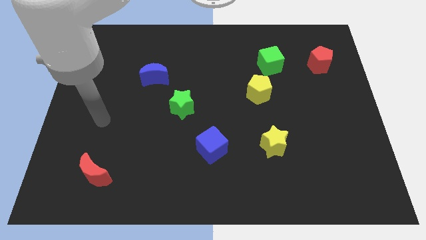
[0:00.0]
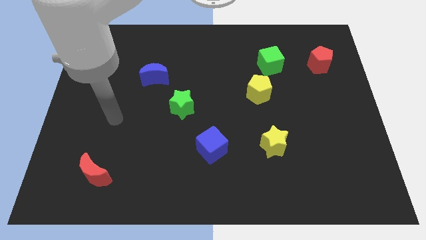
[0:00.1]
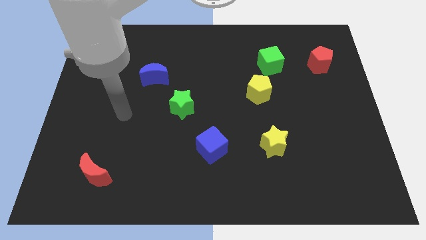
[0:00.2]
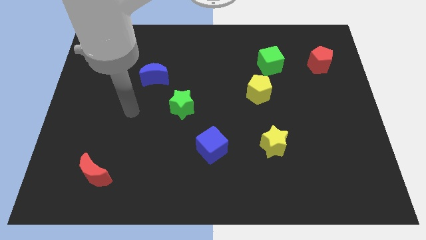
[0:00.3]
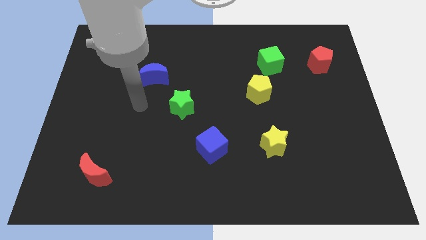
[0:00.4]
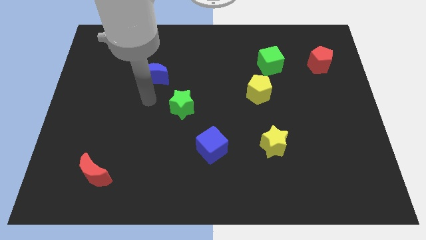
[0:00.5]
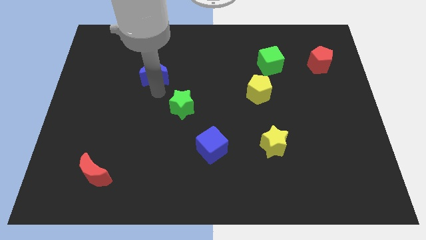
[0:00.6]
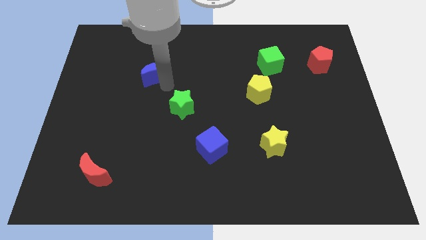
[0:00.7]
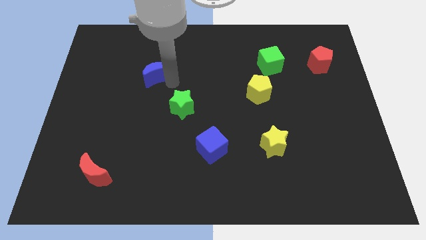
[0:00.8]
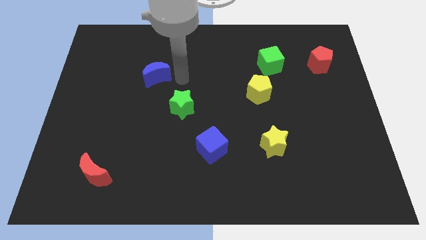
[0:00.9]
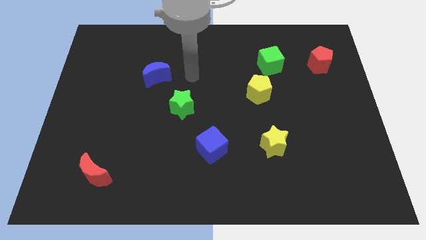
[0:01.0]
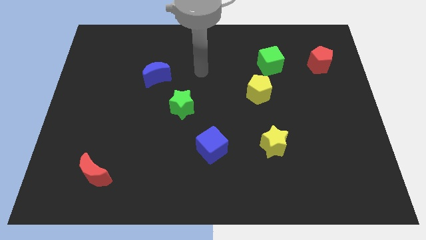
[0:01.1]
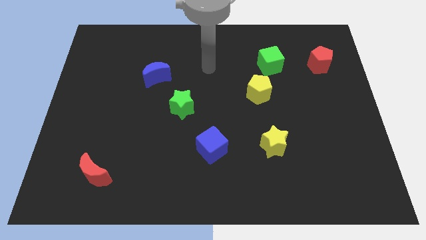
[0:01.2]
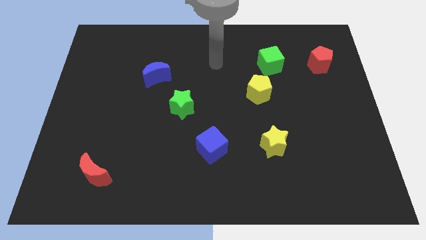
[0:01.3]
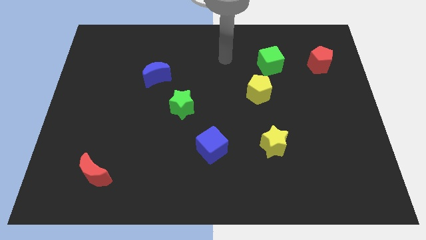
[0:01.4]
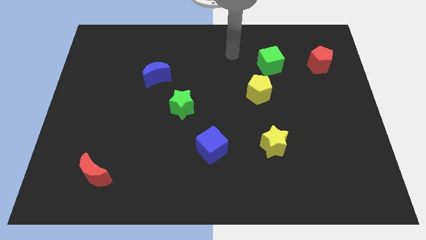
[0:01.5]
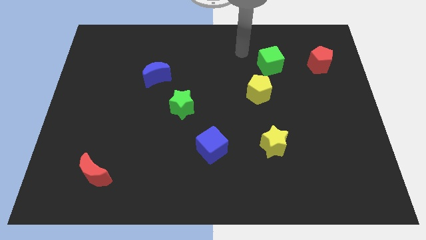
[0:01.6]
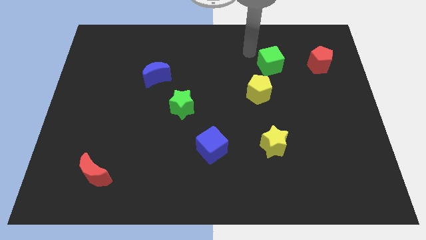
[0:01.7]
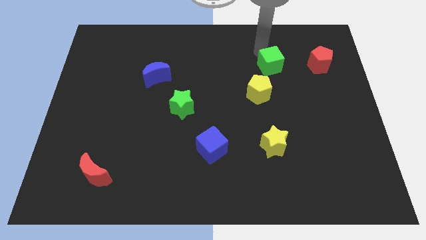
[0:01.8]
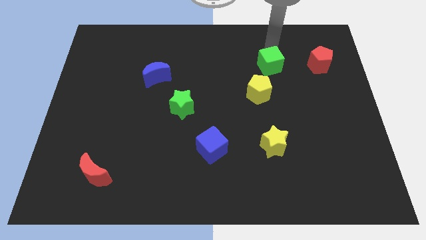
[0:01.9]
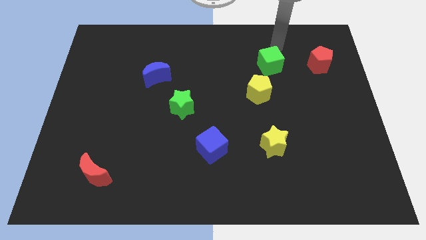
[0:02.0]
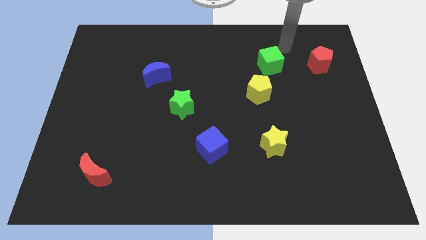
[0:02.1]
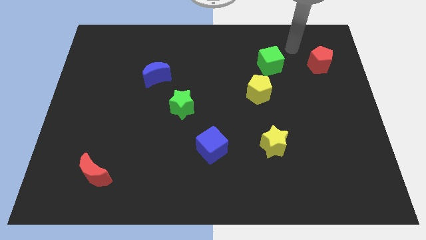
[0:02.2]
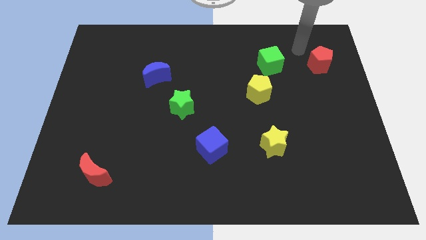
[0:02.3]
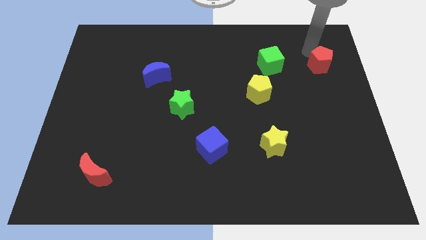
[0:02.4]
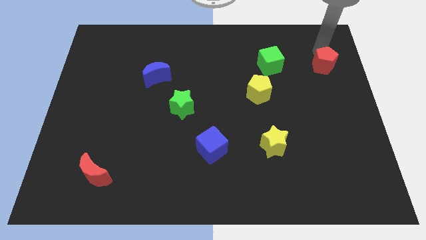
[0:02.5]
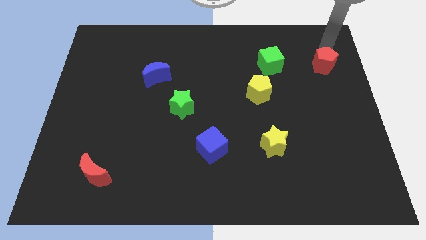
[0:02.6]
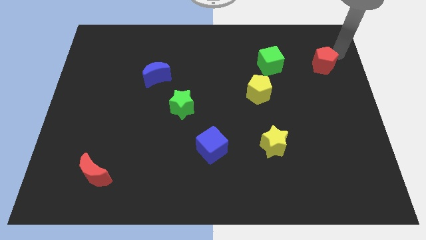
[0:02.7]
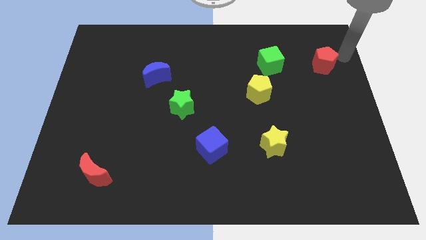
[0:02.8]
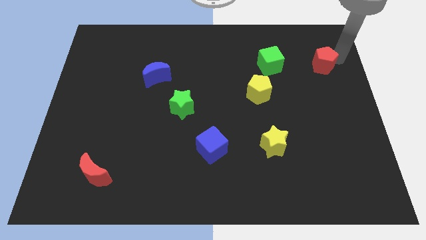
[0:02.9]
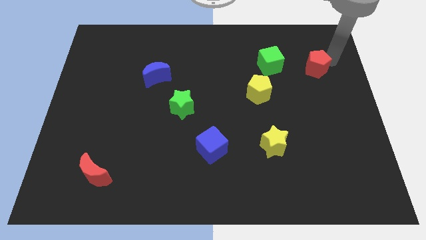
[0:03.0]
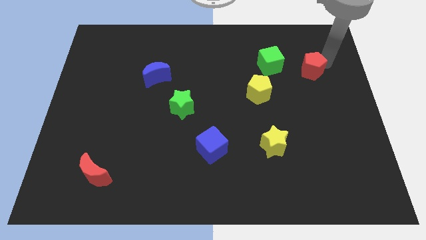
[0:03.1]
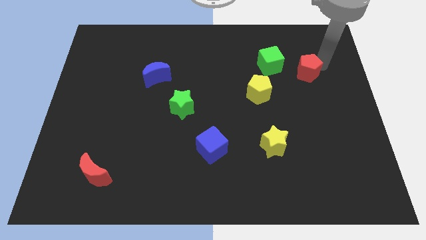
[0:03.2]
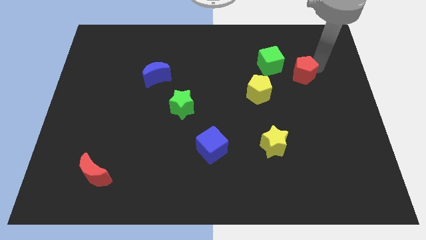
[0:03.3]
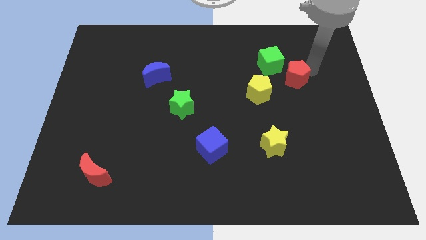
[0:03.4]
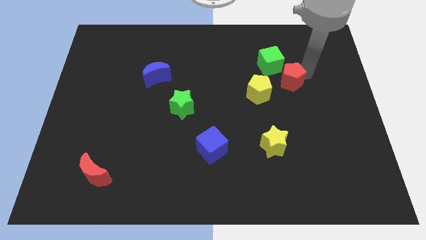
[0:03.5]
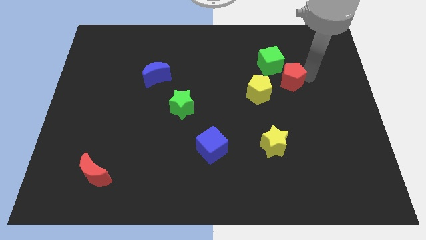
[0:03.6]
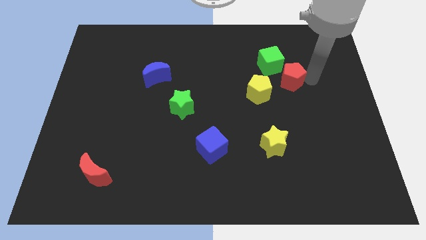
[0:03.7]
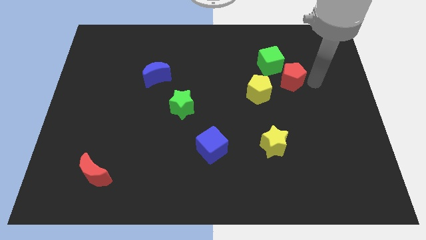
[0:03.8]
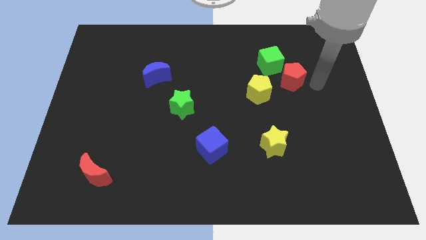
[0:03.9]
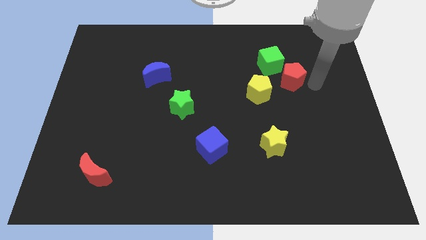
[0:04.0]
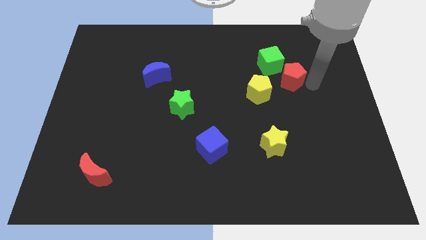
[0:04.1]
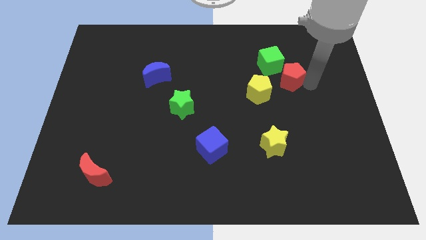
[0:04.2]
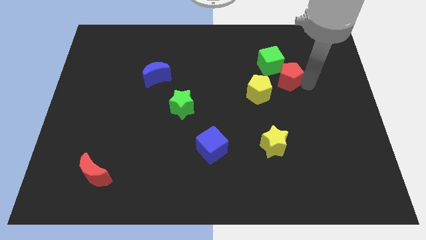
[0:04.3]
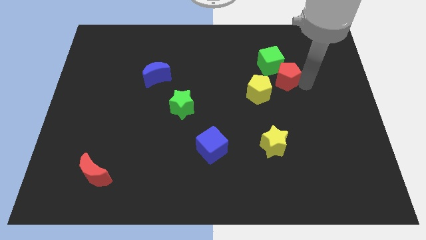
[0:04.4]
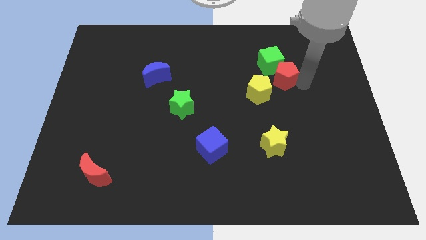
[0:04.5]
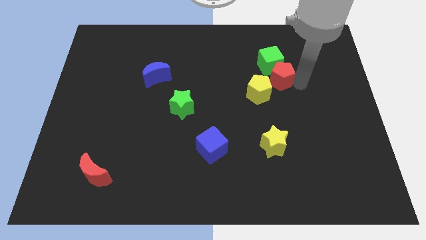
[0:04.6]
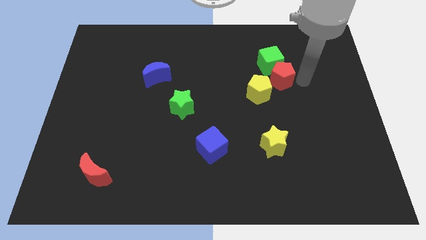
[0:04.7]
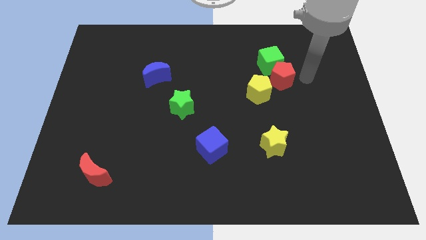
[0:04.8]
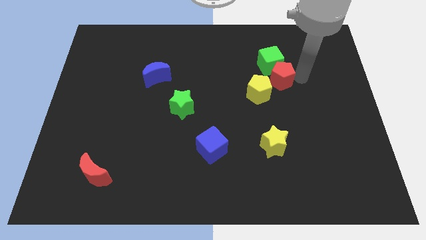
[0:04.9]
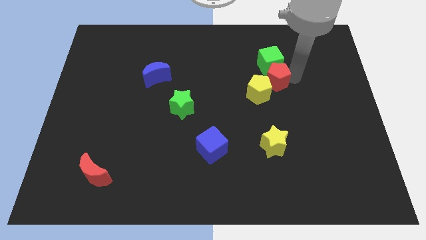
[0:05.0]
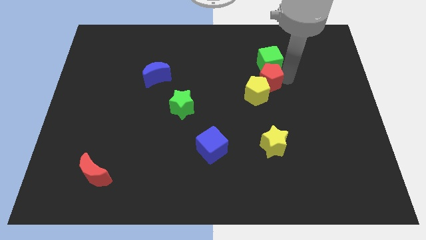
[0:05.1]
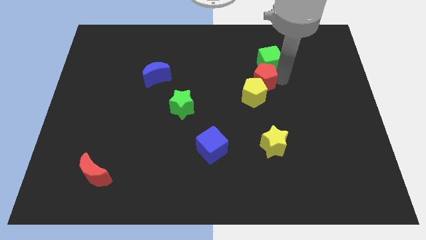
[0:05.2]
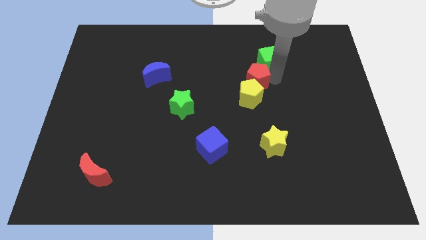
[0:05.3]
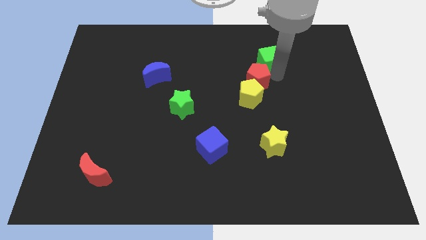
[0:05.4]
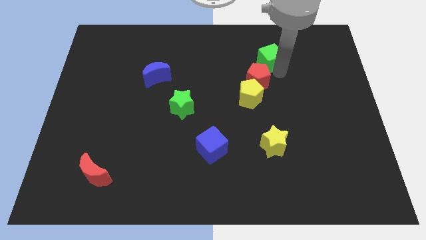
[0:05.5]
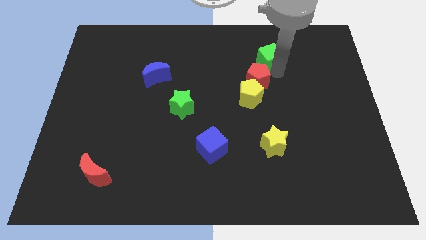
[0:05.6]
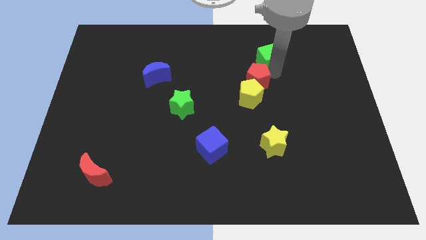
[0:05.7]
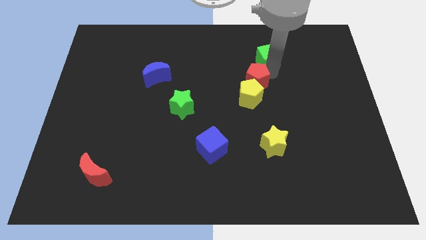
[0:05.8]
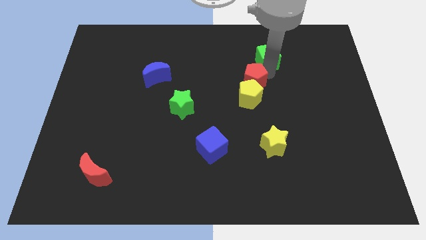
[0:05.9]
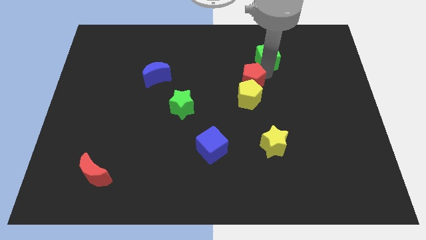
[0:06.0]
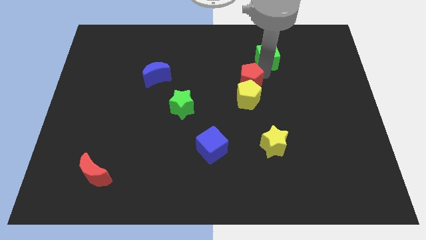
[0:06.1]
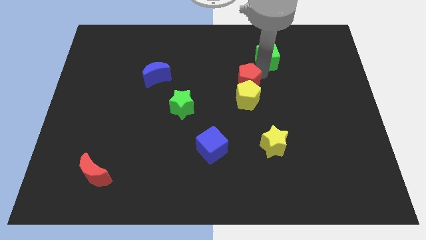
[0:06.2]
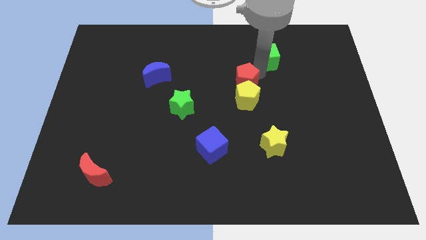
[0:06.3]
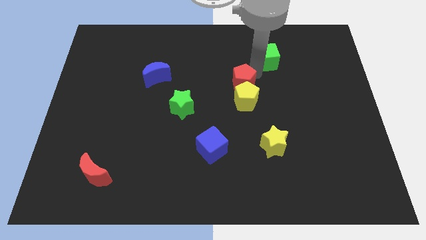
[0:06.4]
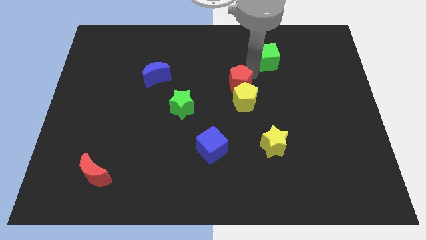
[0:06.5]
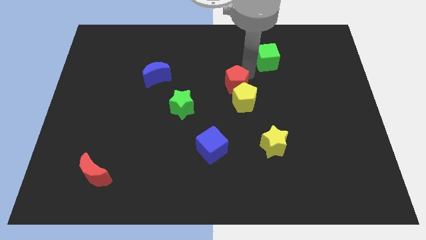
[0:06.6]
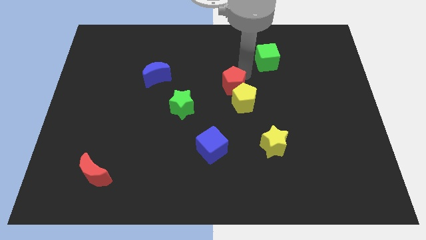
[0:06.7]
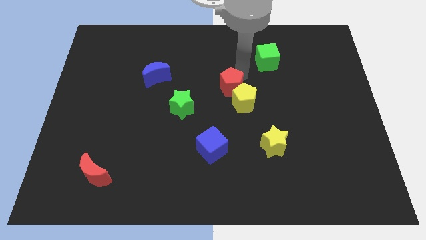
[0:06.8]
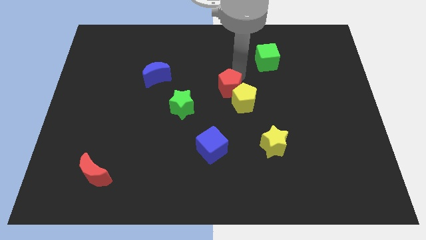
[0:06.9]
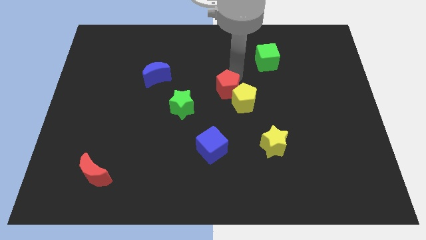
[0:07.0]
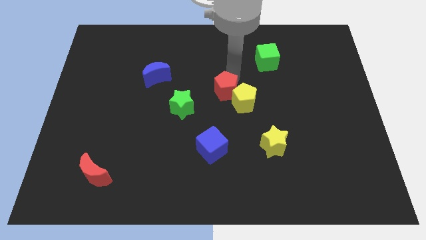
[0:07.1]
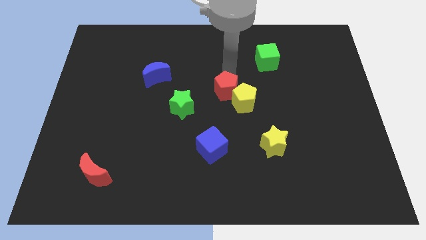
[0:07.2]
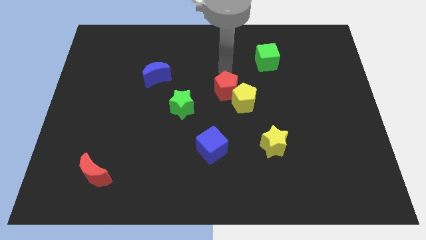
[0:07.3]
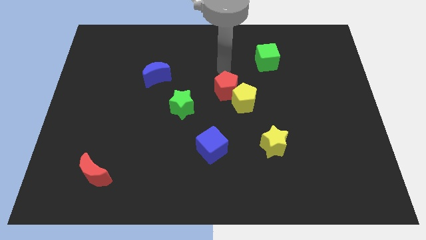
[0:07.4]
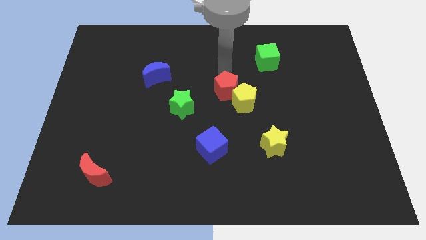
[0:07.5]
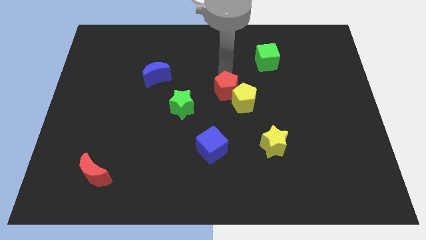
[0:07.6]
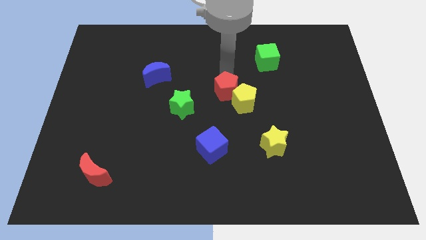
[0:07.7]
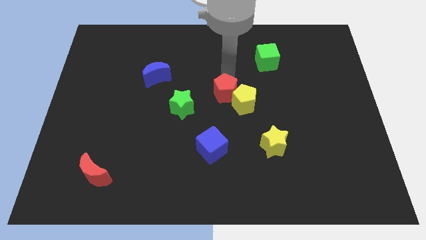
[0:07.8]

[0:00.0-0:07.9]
put the red pentagon right of the green star
